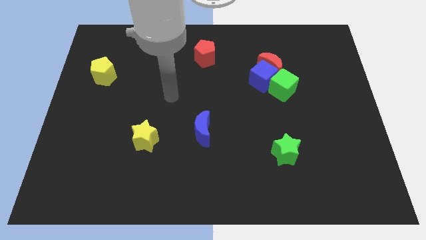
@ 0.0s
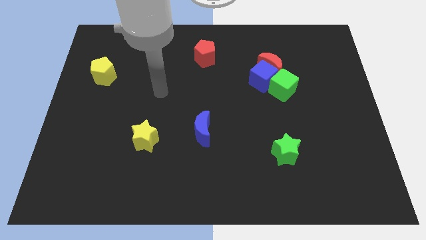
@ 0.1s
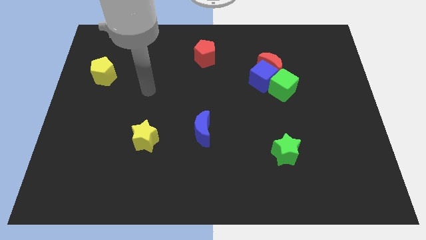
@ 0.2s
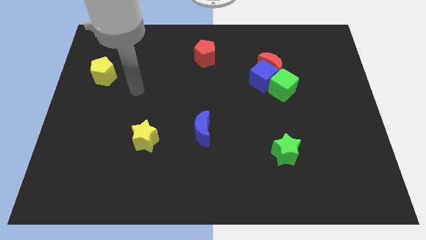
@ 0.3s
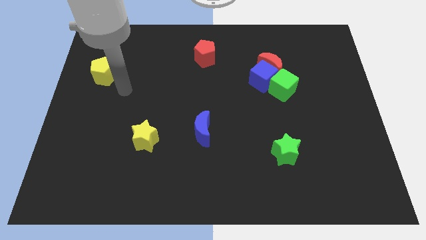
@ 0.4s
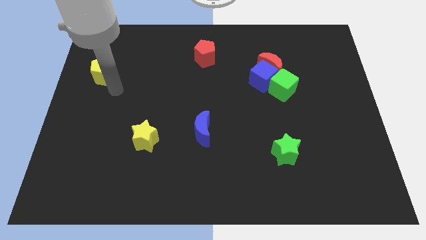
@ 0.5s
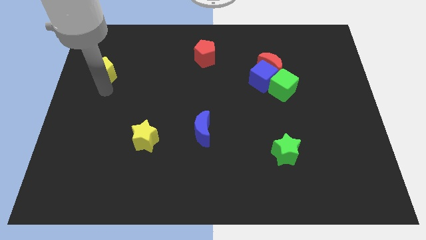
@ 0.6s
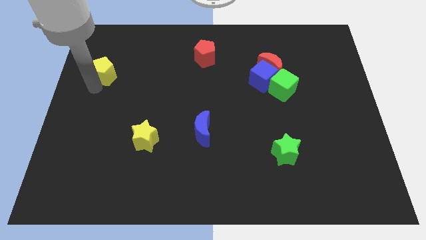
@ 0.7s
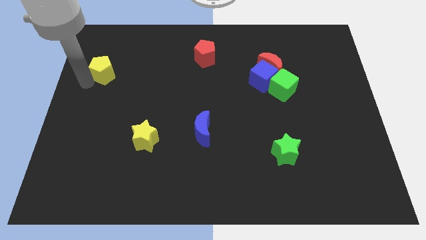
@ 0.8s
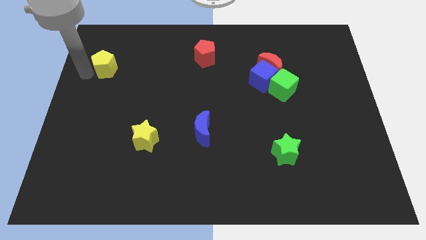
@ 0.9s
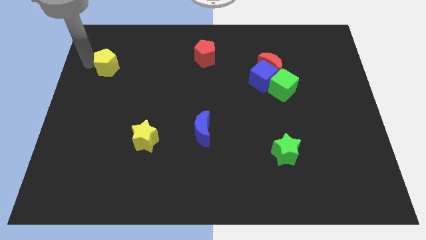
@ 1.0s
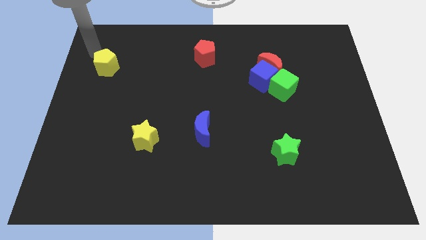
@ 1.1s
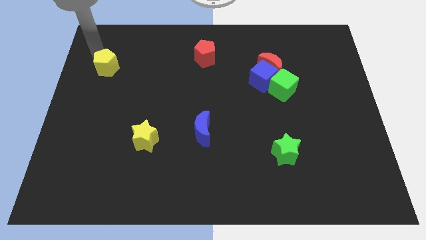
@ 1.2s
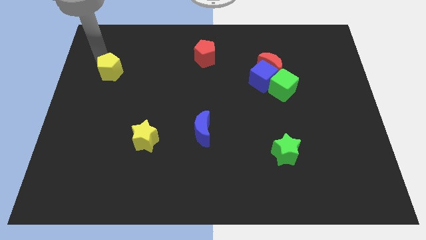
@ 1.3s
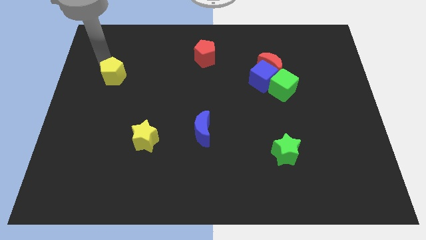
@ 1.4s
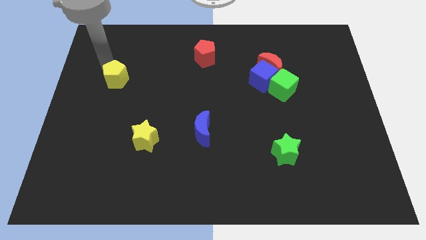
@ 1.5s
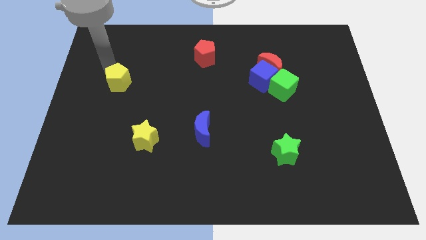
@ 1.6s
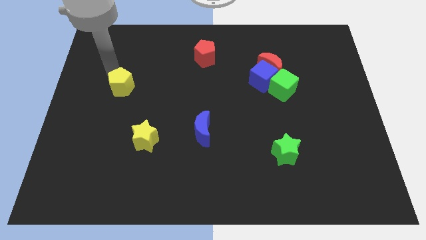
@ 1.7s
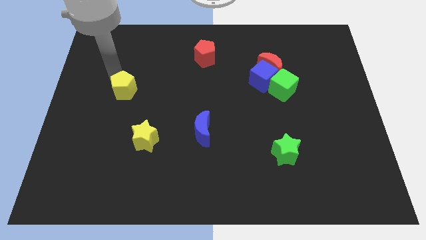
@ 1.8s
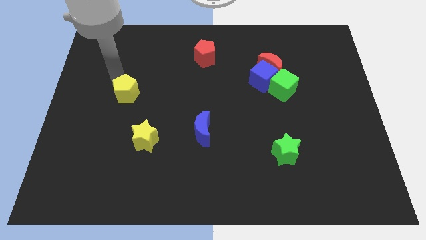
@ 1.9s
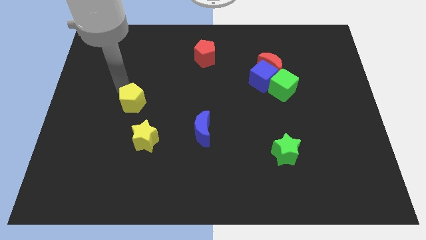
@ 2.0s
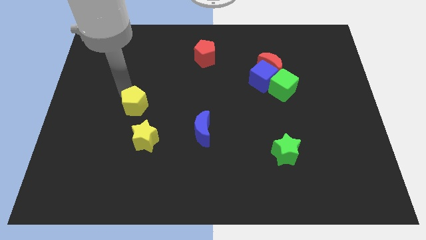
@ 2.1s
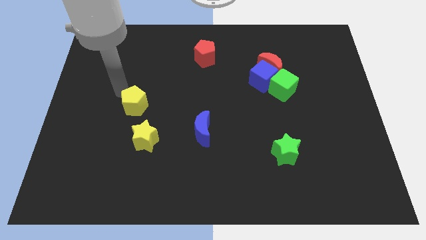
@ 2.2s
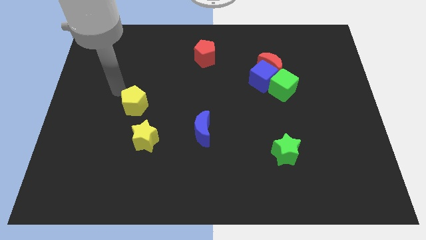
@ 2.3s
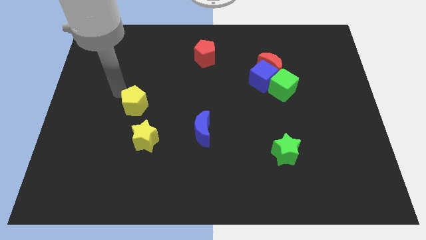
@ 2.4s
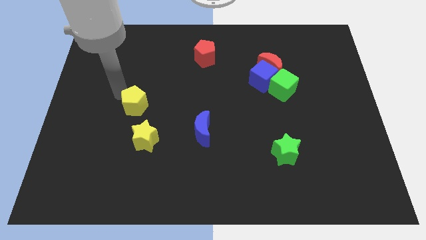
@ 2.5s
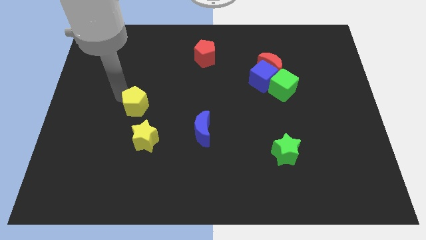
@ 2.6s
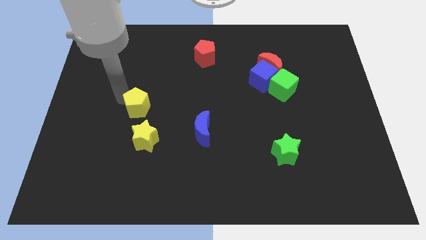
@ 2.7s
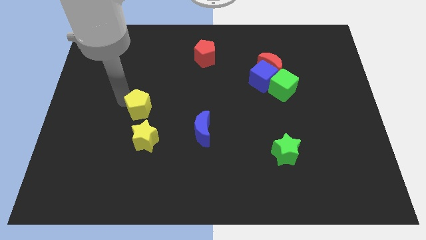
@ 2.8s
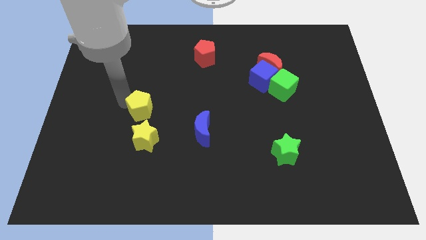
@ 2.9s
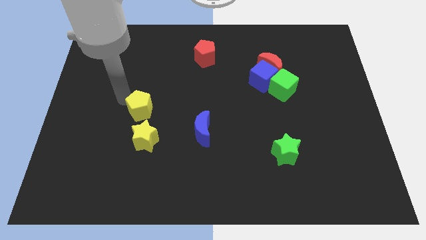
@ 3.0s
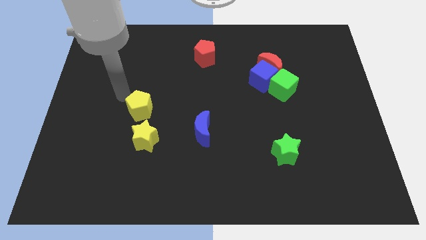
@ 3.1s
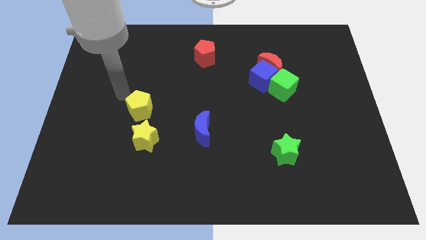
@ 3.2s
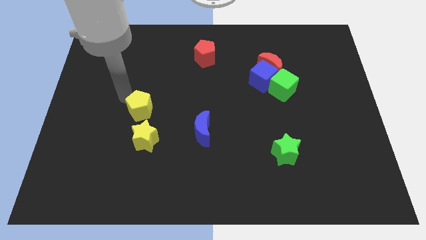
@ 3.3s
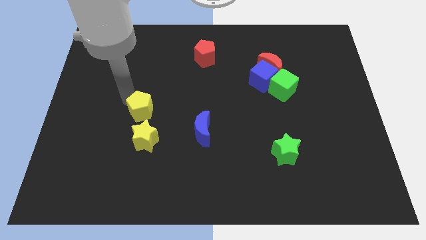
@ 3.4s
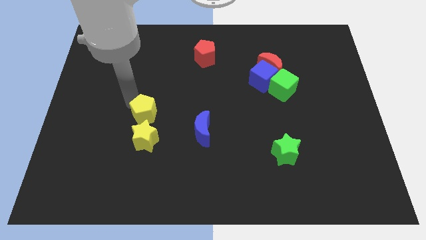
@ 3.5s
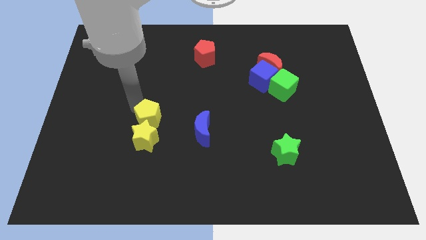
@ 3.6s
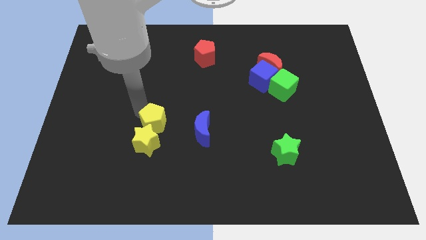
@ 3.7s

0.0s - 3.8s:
move the yellow pentagon down and right

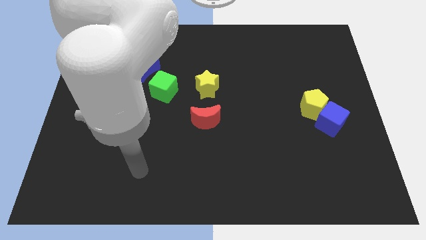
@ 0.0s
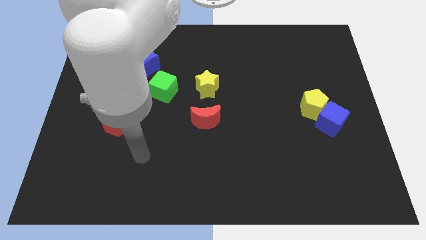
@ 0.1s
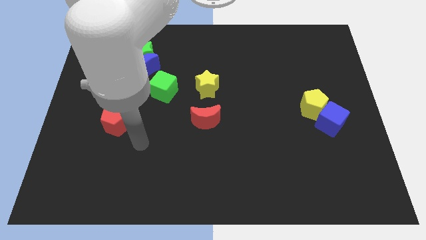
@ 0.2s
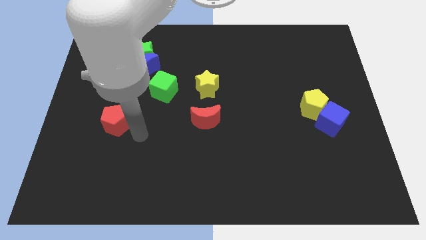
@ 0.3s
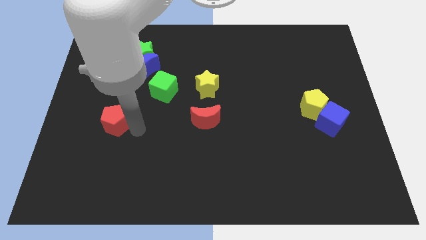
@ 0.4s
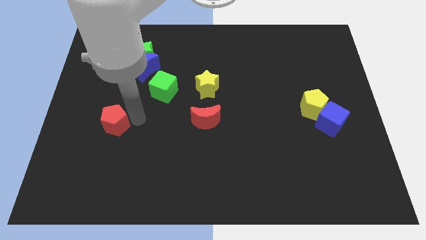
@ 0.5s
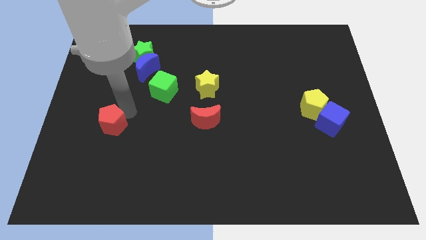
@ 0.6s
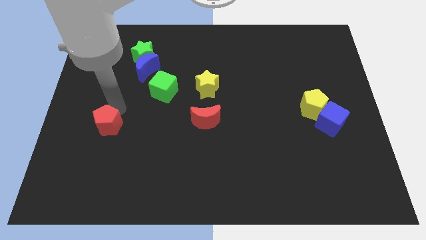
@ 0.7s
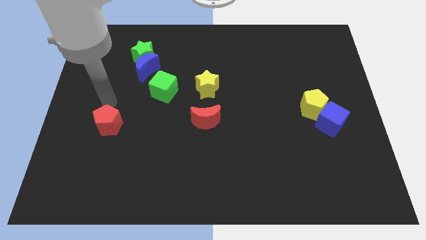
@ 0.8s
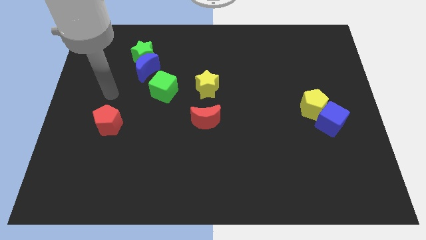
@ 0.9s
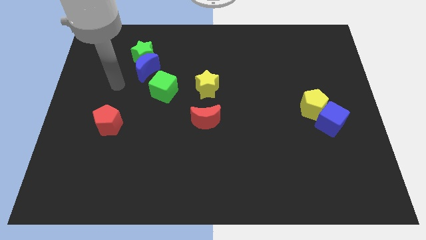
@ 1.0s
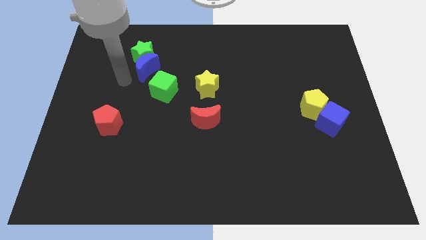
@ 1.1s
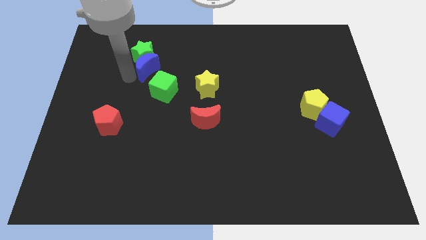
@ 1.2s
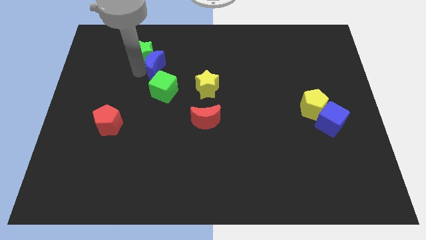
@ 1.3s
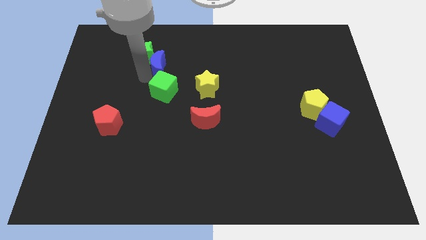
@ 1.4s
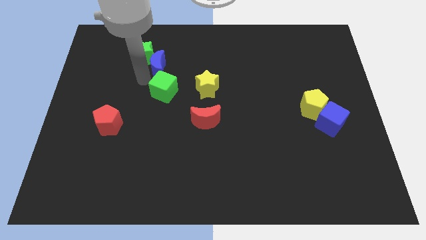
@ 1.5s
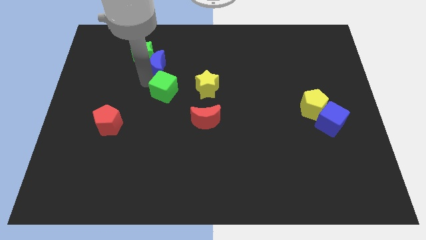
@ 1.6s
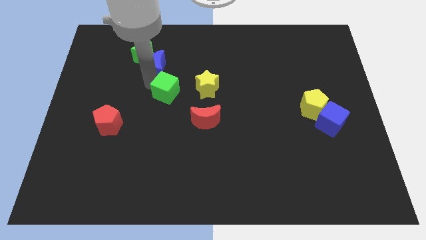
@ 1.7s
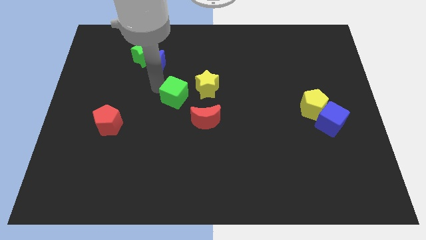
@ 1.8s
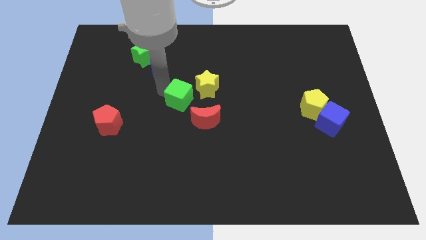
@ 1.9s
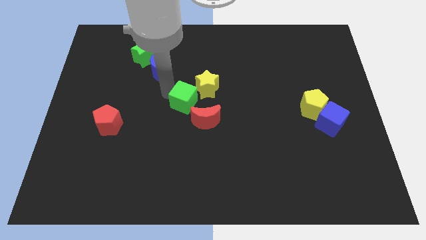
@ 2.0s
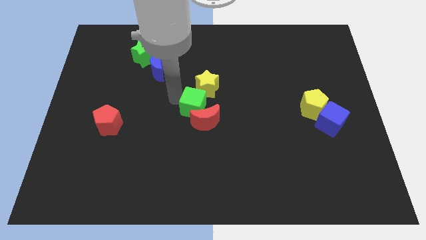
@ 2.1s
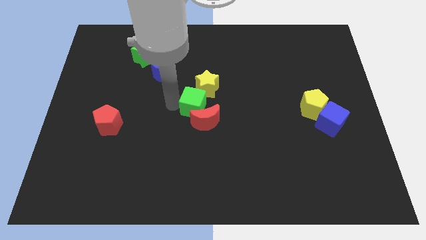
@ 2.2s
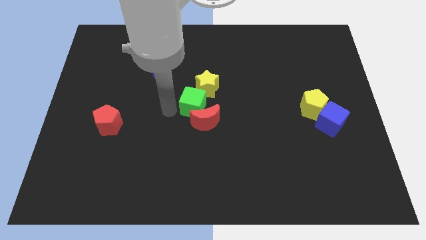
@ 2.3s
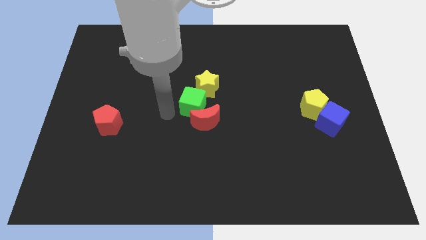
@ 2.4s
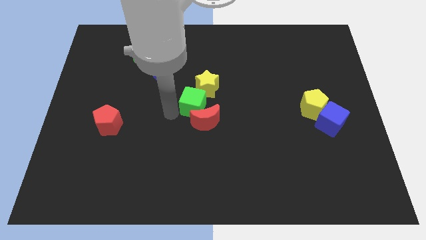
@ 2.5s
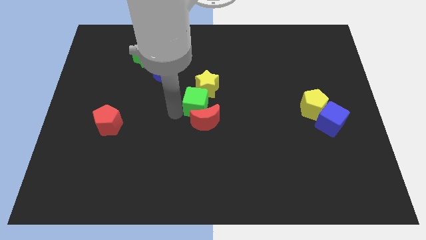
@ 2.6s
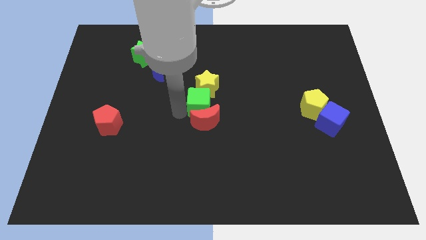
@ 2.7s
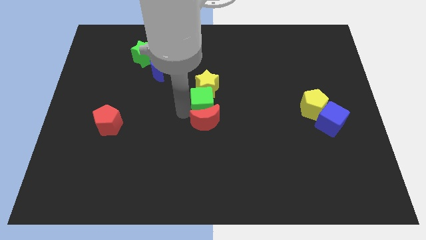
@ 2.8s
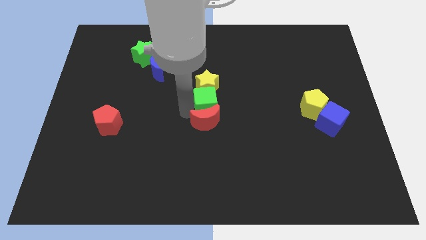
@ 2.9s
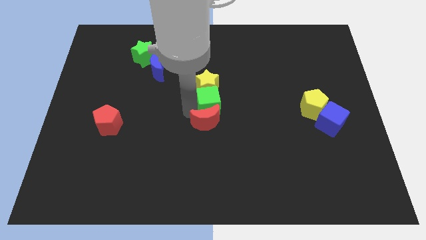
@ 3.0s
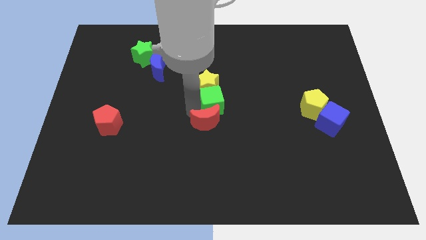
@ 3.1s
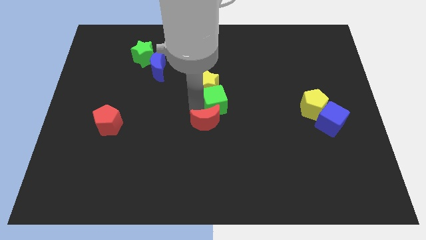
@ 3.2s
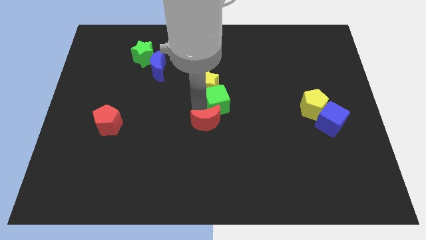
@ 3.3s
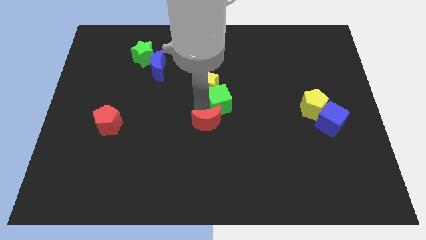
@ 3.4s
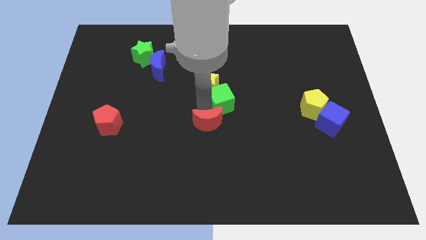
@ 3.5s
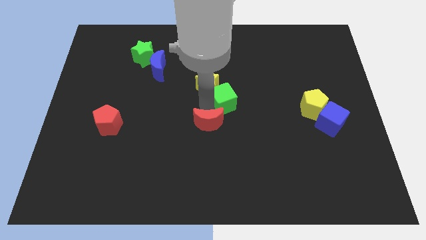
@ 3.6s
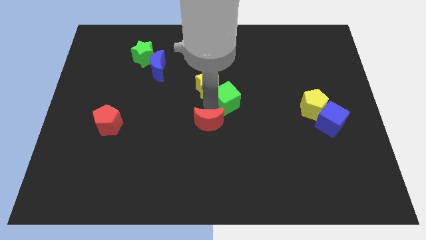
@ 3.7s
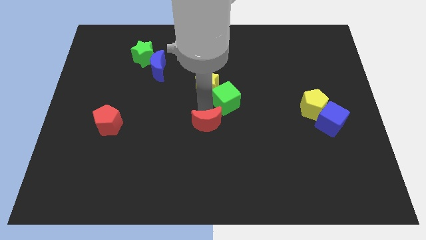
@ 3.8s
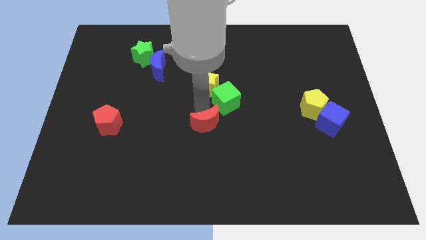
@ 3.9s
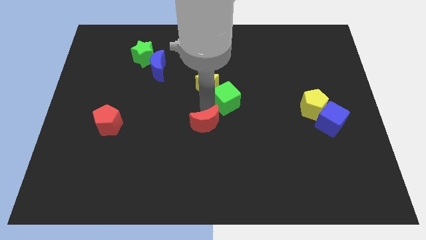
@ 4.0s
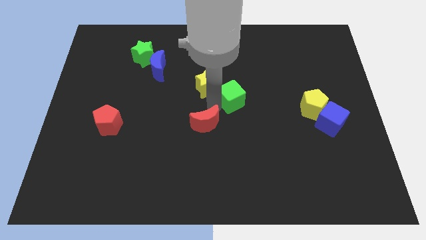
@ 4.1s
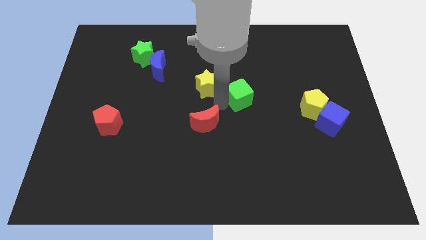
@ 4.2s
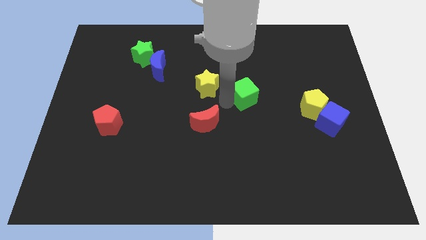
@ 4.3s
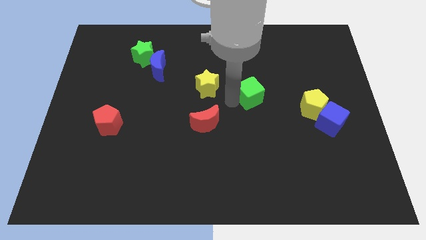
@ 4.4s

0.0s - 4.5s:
push the green cube right
